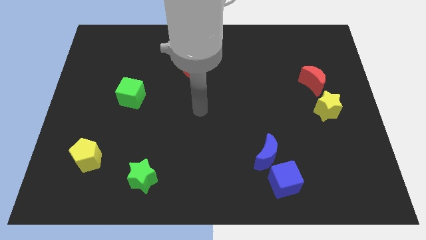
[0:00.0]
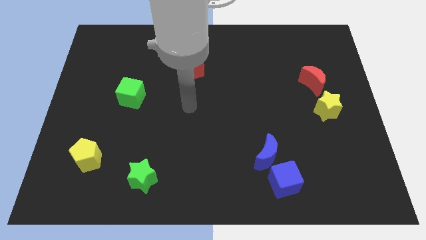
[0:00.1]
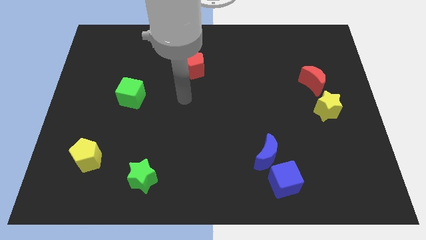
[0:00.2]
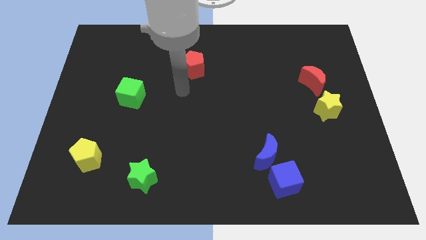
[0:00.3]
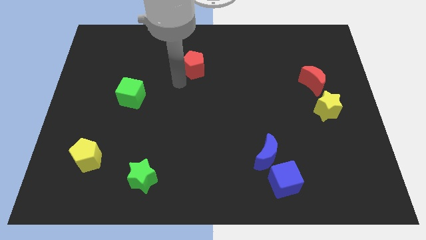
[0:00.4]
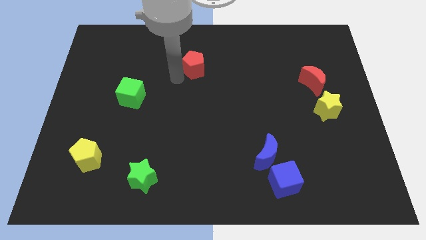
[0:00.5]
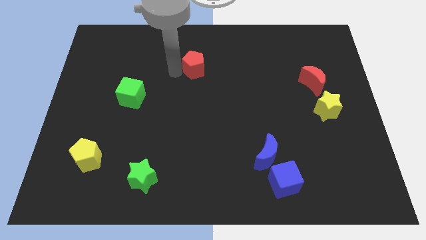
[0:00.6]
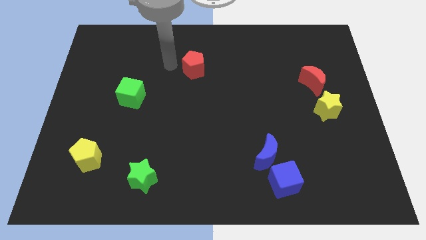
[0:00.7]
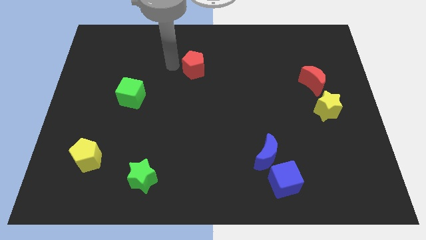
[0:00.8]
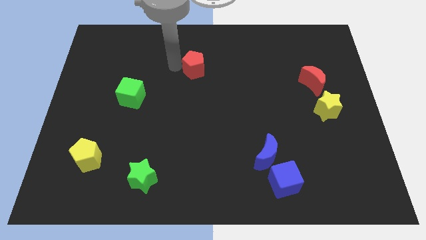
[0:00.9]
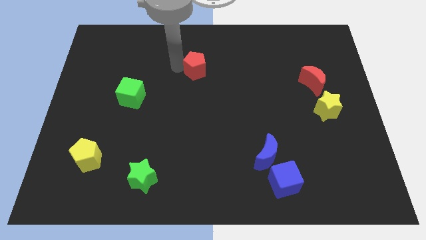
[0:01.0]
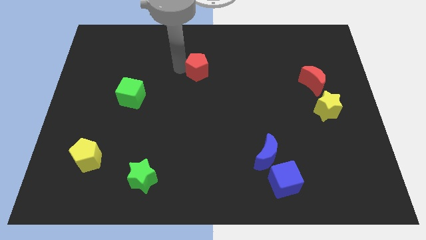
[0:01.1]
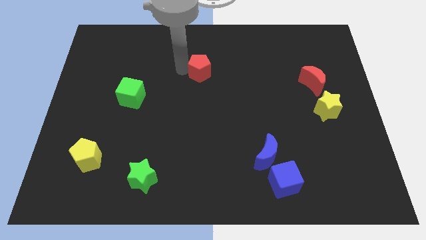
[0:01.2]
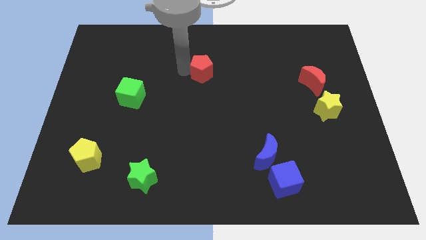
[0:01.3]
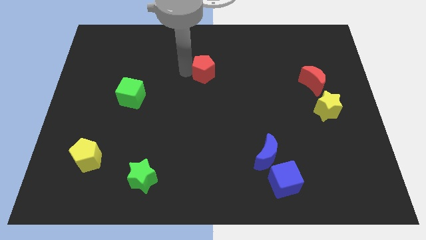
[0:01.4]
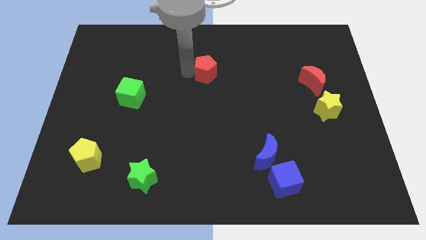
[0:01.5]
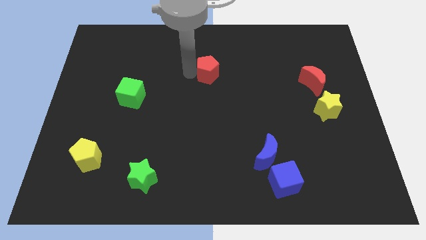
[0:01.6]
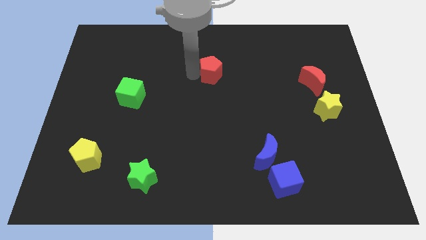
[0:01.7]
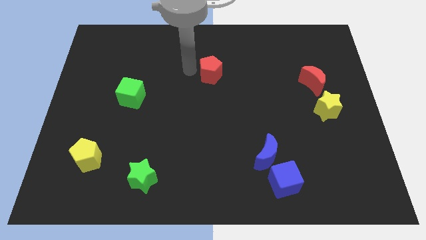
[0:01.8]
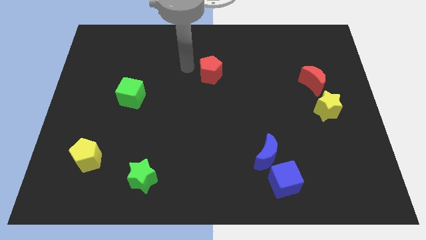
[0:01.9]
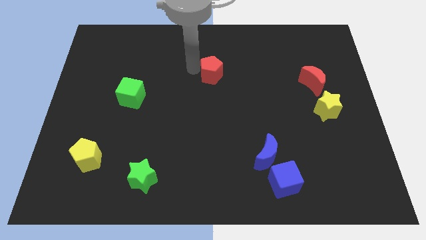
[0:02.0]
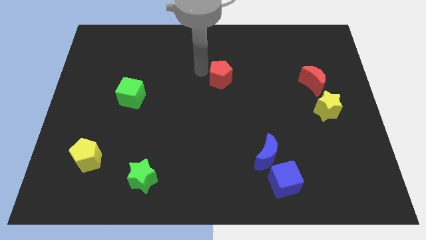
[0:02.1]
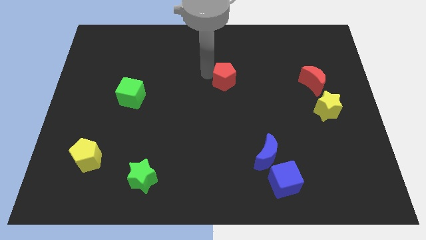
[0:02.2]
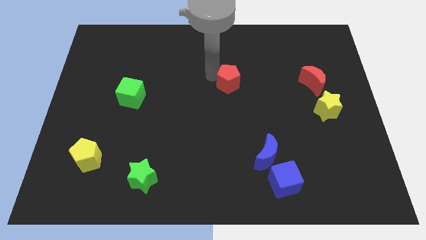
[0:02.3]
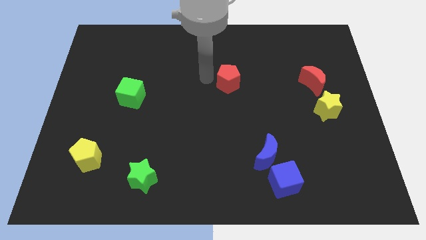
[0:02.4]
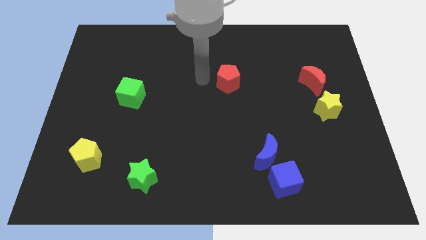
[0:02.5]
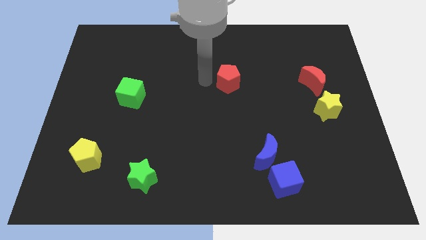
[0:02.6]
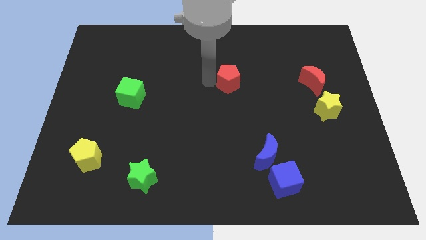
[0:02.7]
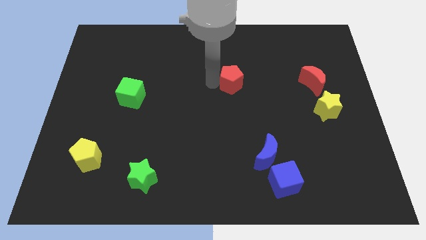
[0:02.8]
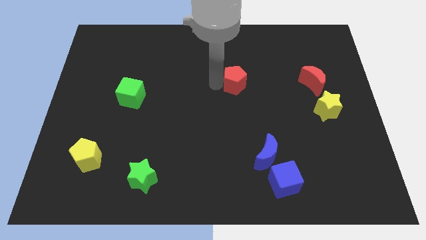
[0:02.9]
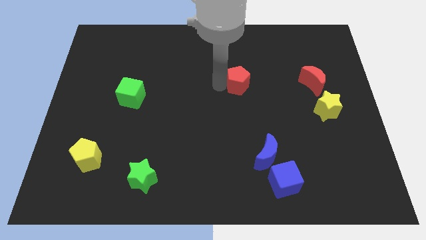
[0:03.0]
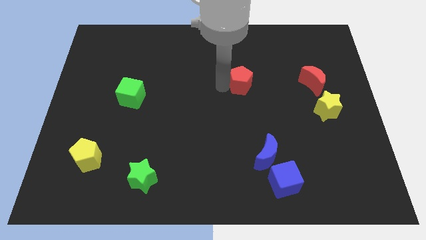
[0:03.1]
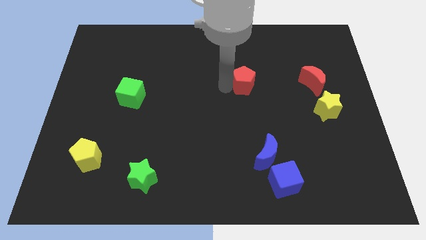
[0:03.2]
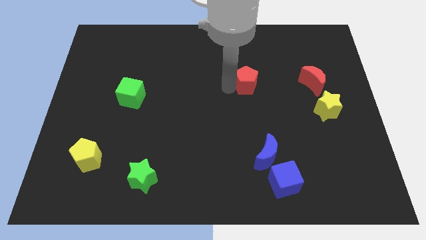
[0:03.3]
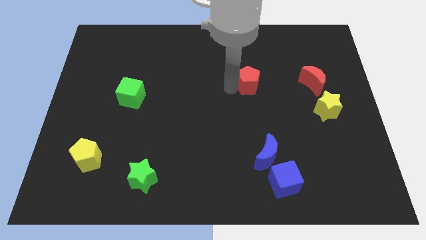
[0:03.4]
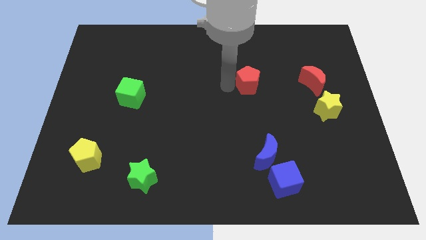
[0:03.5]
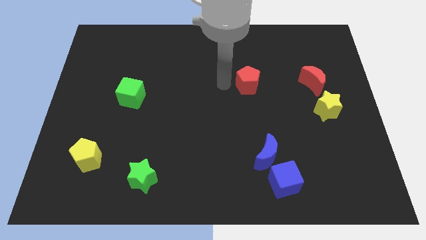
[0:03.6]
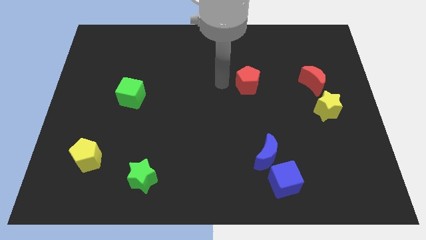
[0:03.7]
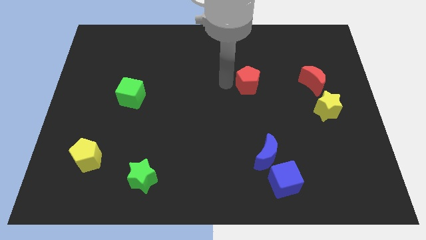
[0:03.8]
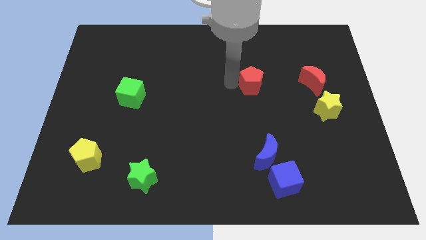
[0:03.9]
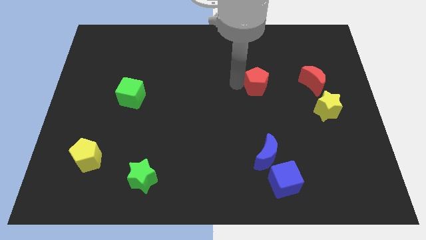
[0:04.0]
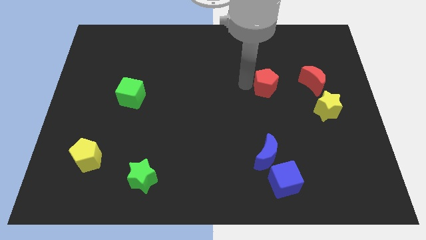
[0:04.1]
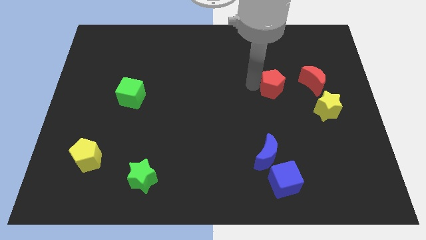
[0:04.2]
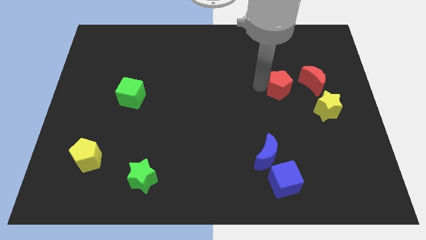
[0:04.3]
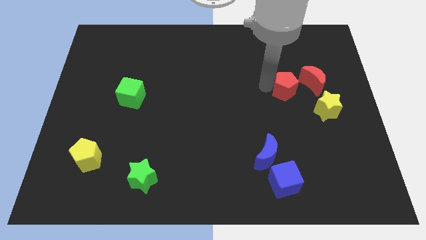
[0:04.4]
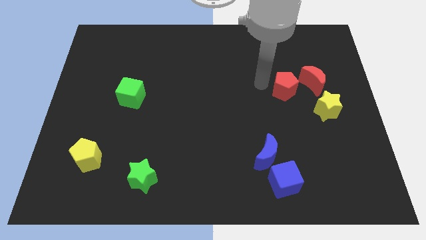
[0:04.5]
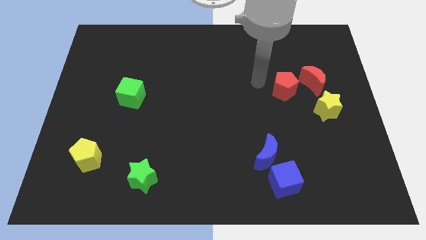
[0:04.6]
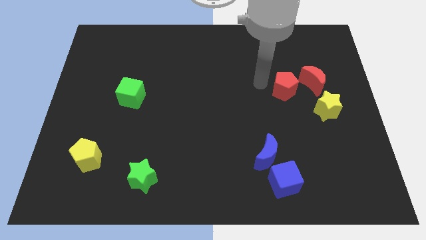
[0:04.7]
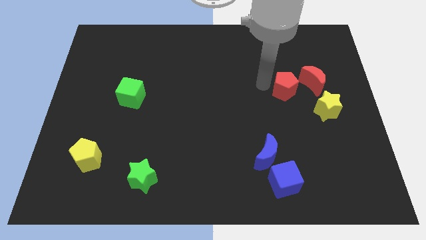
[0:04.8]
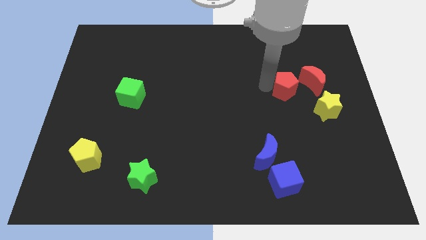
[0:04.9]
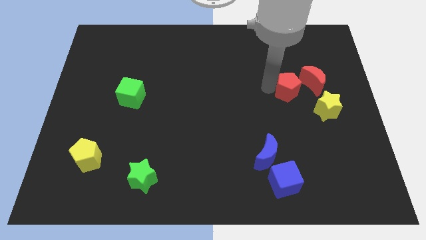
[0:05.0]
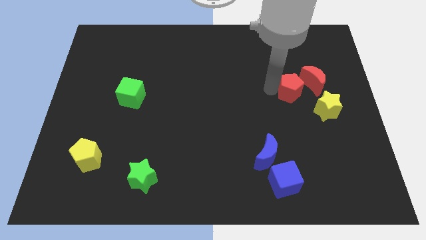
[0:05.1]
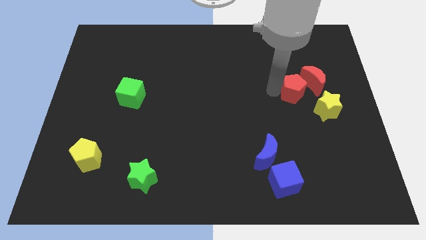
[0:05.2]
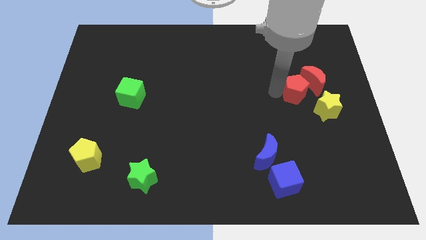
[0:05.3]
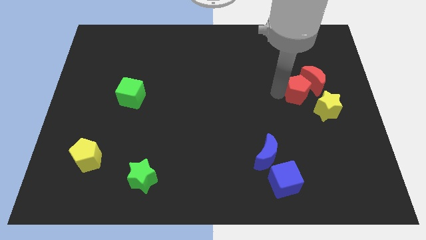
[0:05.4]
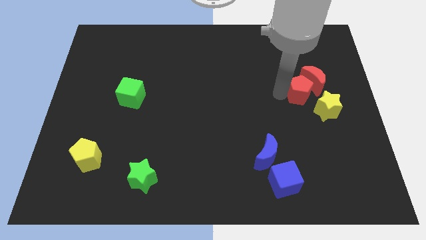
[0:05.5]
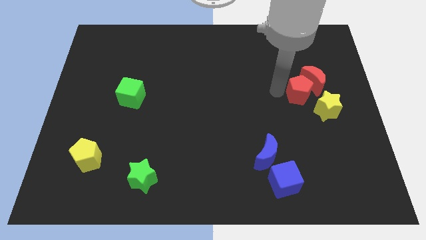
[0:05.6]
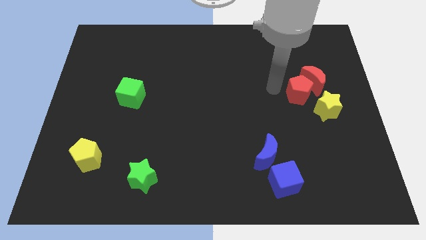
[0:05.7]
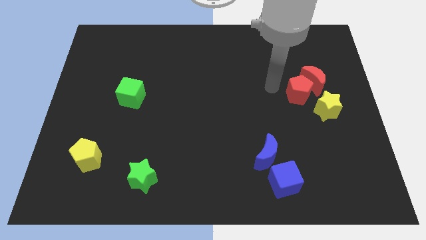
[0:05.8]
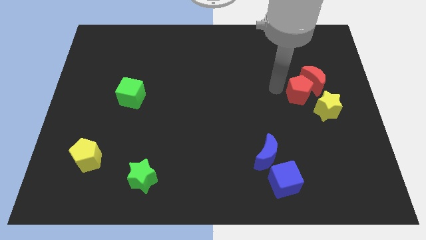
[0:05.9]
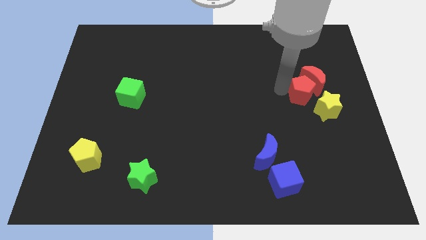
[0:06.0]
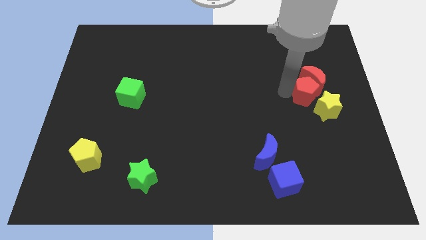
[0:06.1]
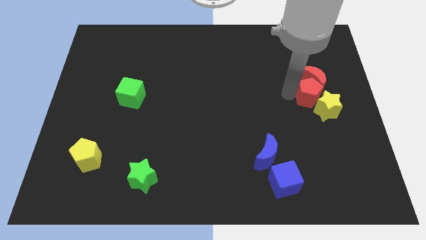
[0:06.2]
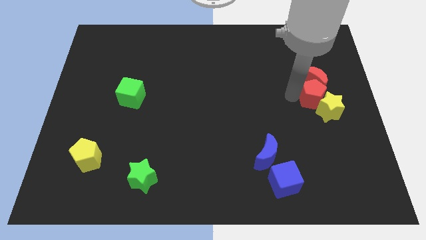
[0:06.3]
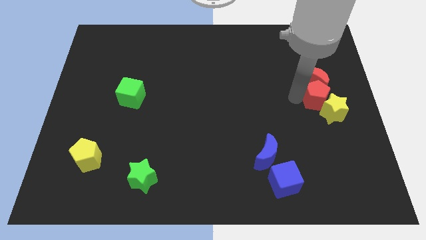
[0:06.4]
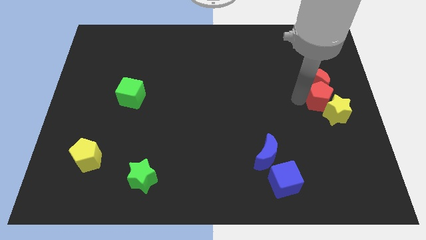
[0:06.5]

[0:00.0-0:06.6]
slide the red pentagon to the right side
